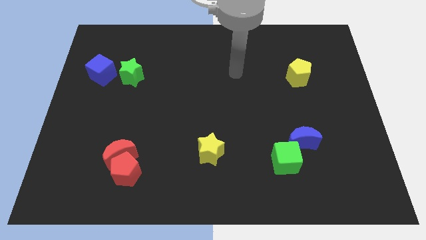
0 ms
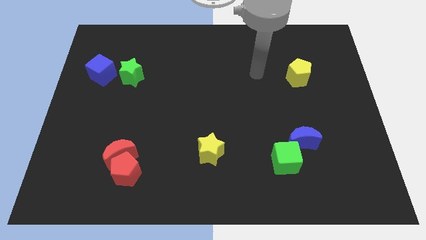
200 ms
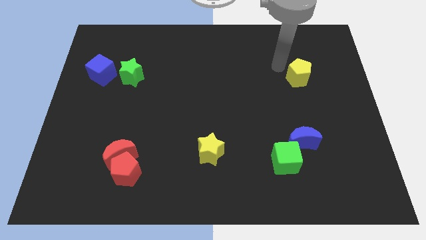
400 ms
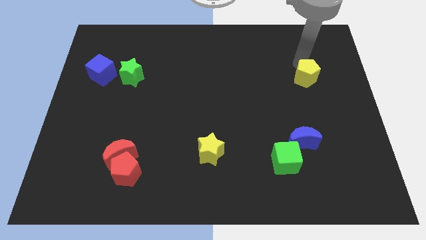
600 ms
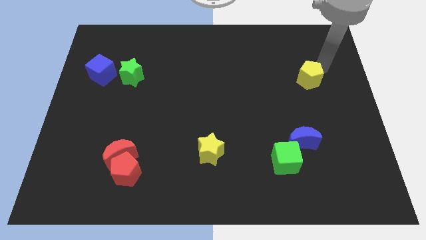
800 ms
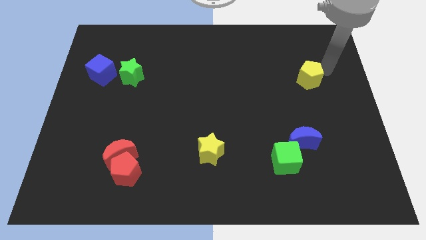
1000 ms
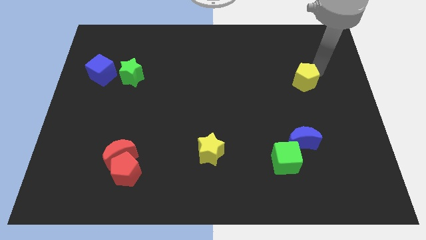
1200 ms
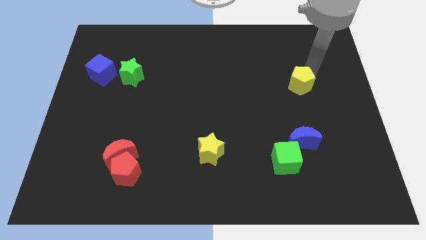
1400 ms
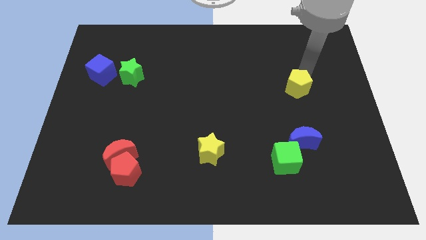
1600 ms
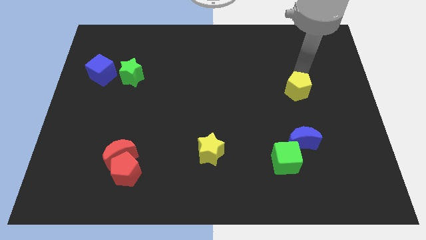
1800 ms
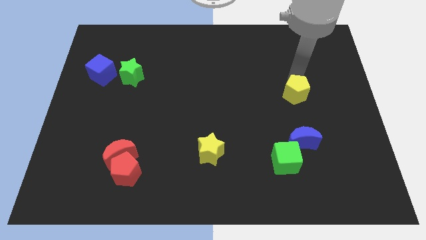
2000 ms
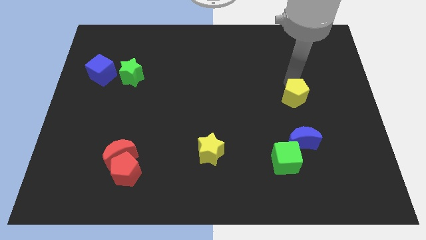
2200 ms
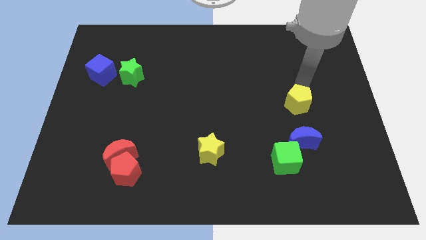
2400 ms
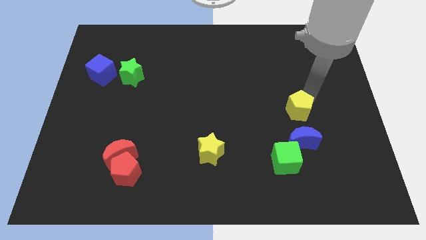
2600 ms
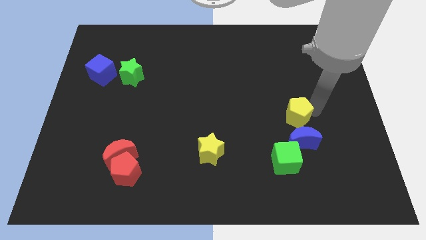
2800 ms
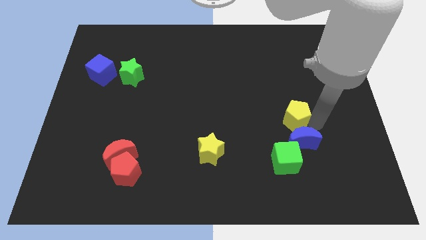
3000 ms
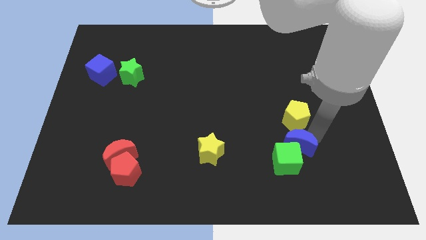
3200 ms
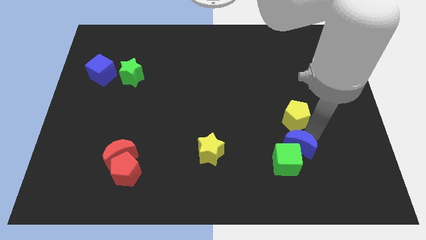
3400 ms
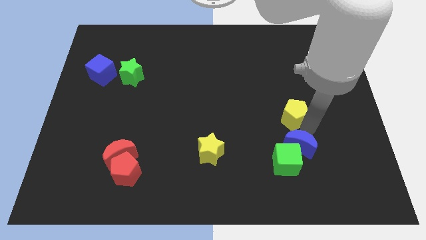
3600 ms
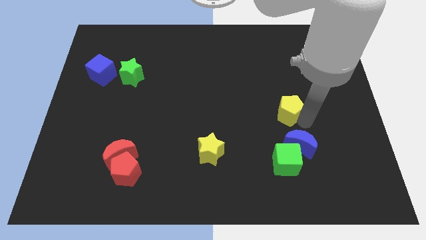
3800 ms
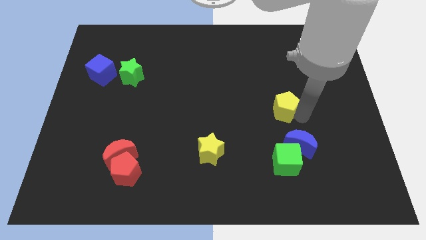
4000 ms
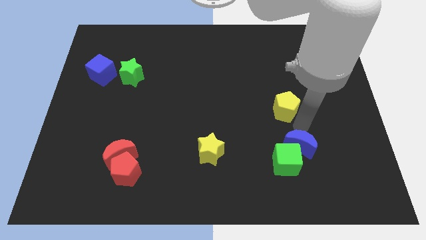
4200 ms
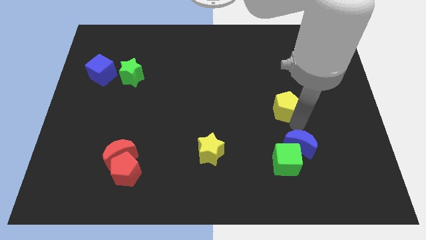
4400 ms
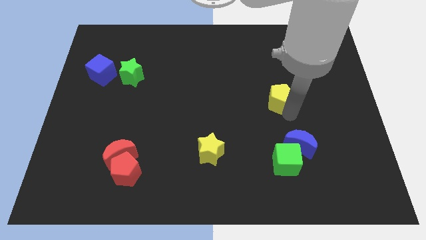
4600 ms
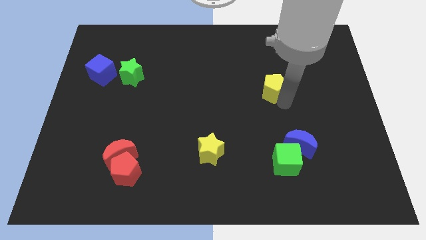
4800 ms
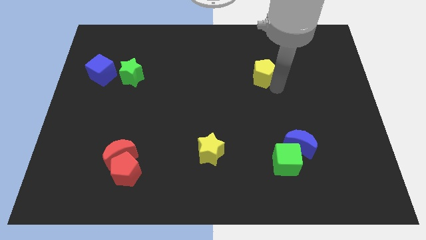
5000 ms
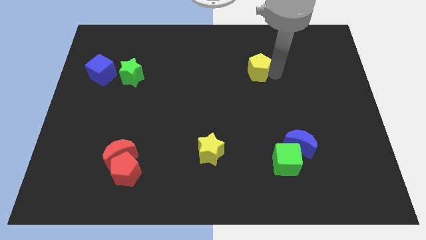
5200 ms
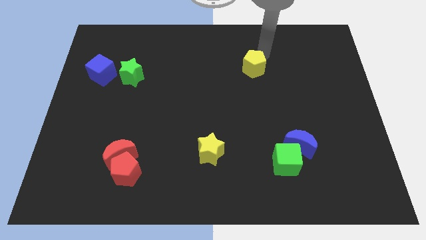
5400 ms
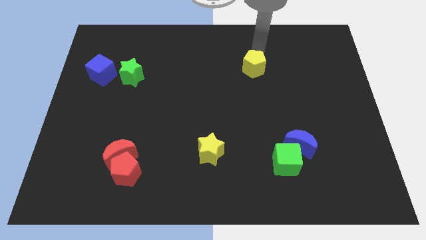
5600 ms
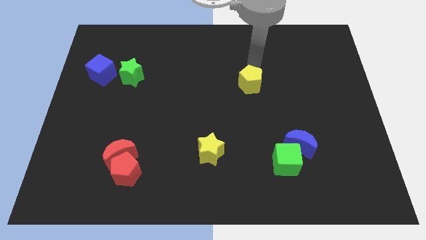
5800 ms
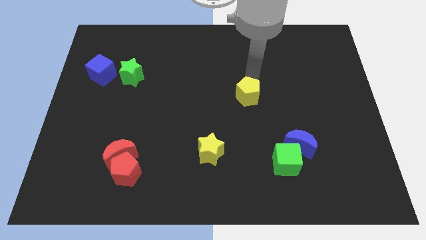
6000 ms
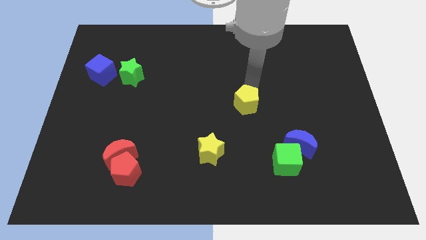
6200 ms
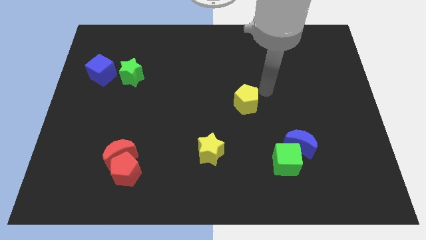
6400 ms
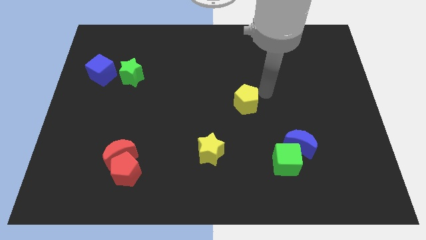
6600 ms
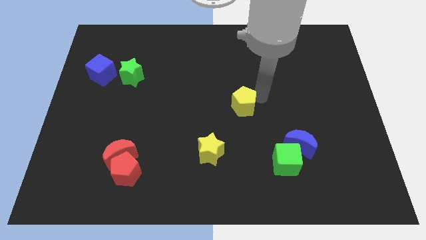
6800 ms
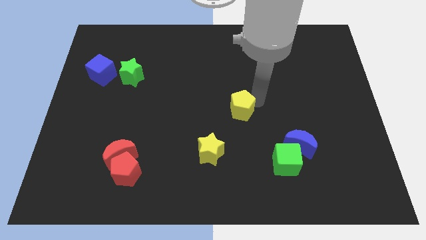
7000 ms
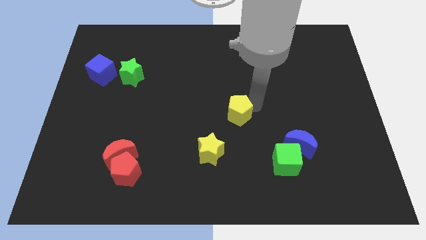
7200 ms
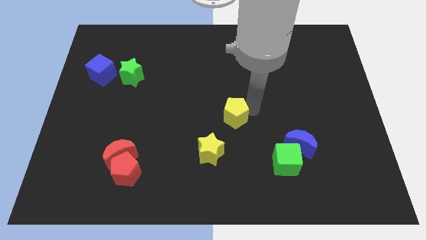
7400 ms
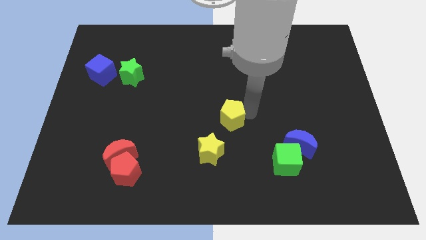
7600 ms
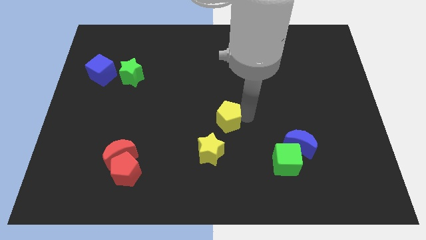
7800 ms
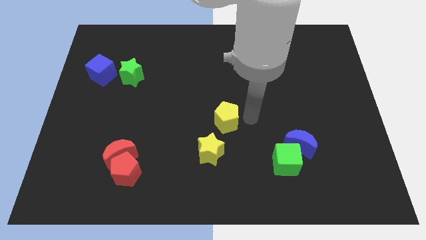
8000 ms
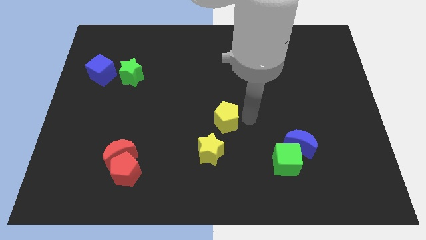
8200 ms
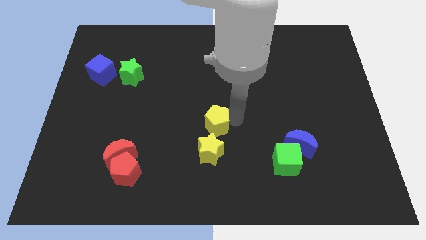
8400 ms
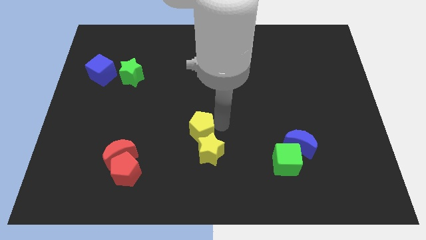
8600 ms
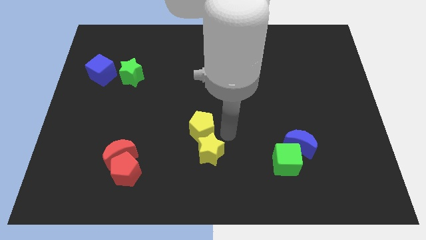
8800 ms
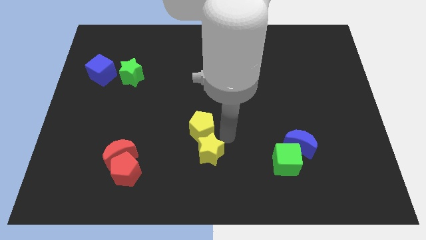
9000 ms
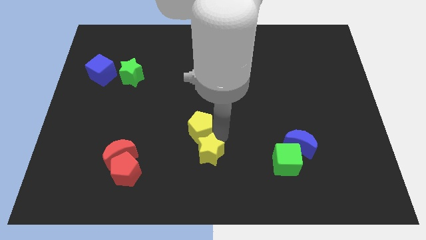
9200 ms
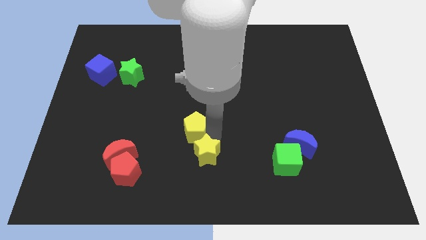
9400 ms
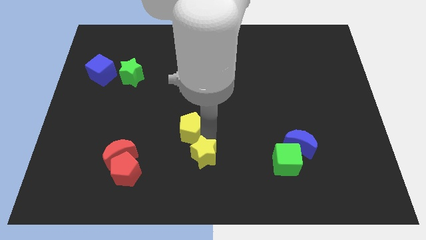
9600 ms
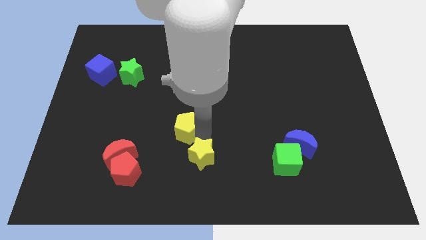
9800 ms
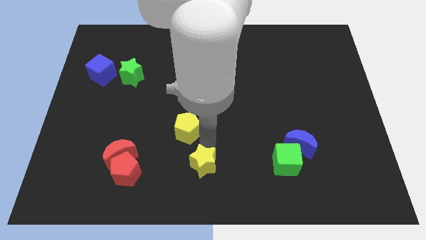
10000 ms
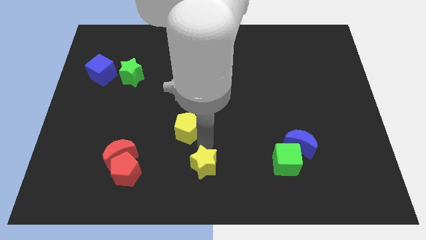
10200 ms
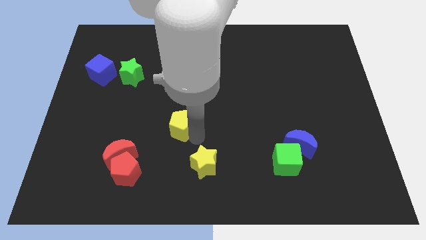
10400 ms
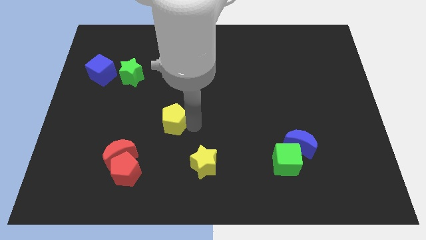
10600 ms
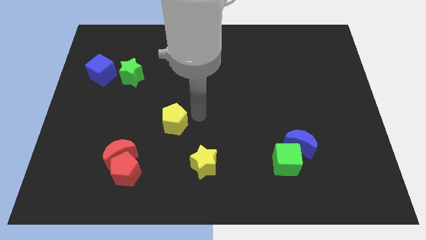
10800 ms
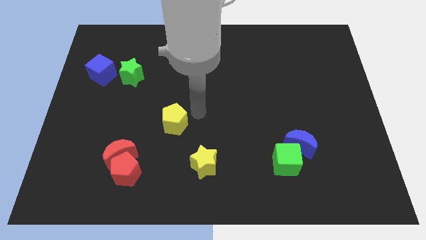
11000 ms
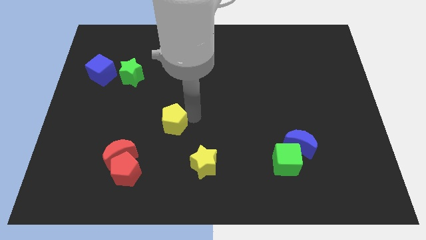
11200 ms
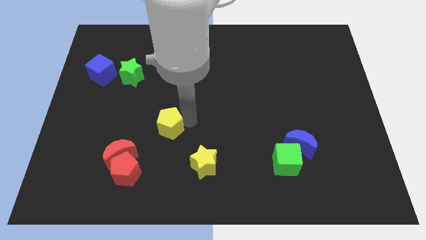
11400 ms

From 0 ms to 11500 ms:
push the yellow pentagon to the top right of the red moon

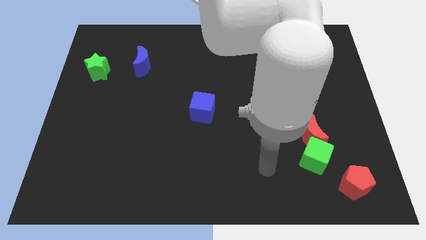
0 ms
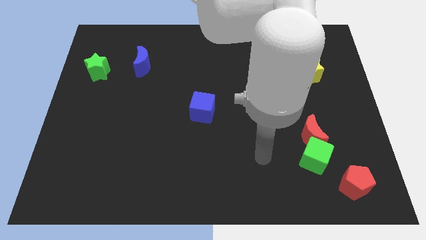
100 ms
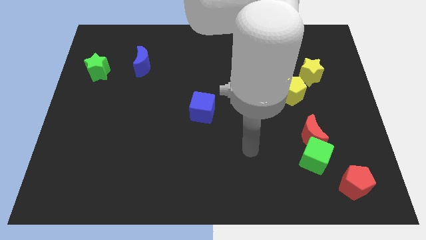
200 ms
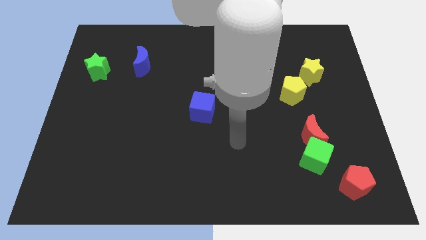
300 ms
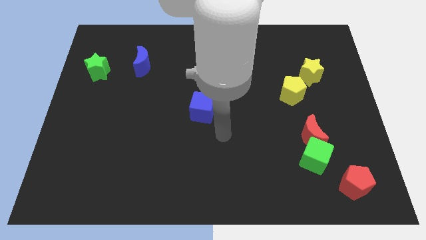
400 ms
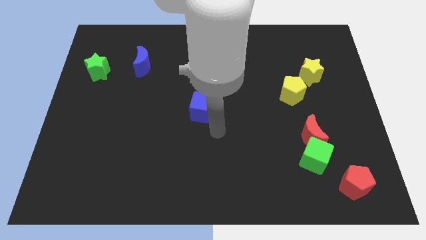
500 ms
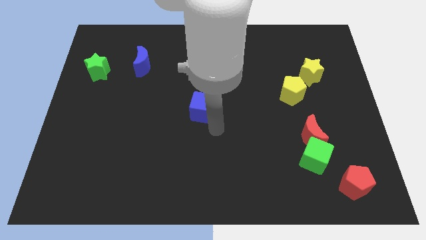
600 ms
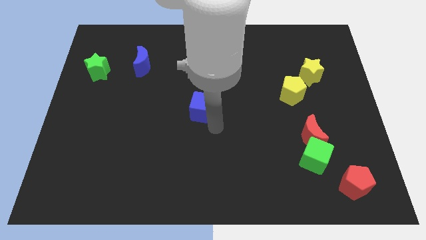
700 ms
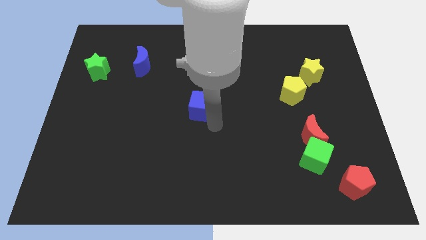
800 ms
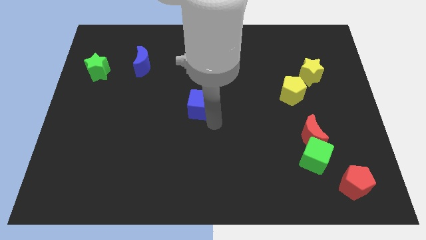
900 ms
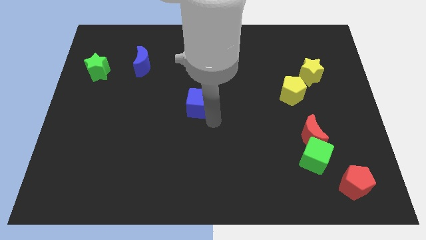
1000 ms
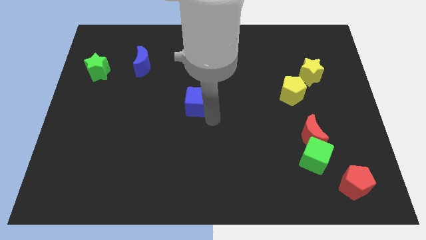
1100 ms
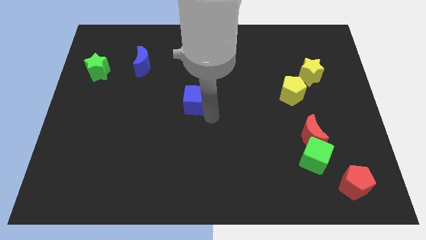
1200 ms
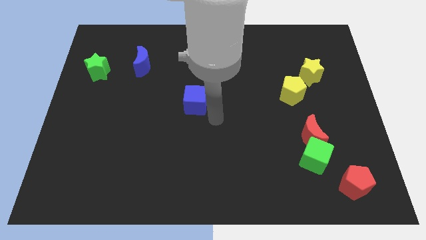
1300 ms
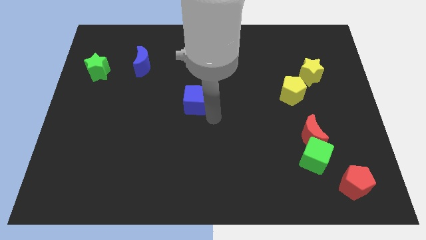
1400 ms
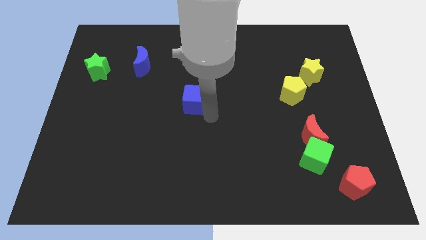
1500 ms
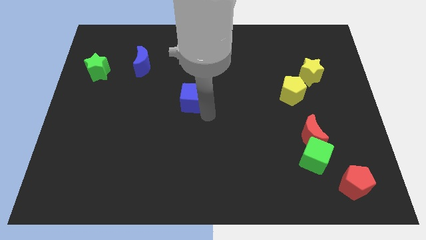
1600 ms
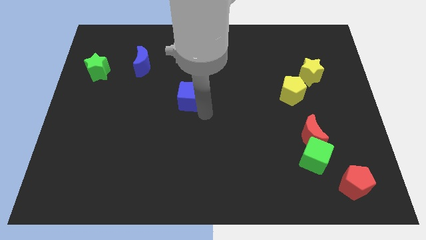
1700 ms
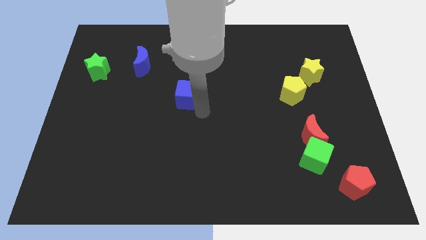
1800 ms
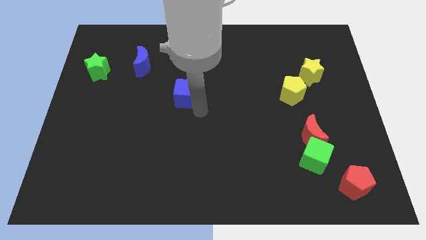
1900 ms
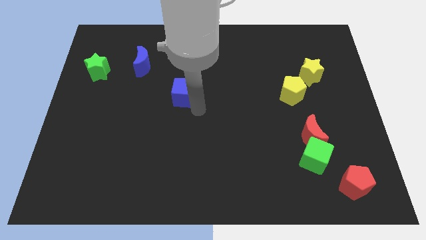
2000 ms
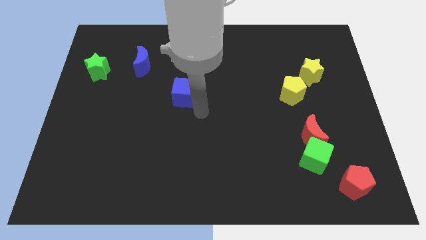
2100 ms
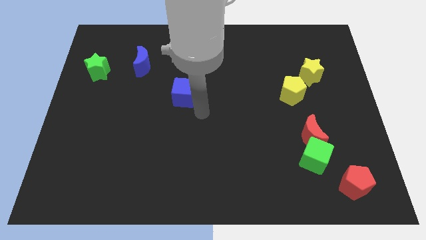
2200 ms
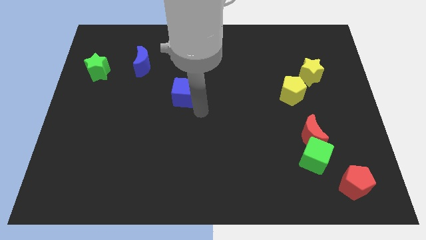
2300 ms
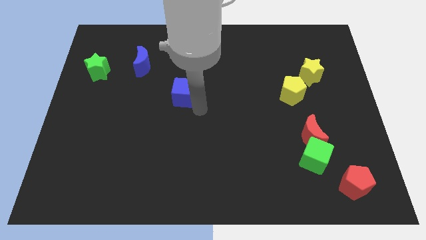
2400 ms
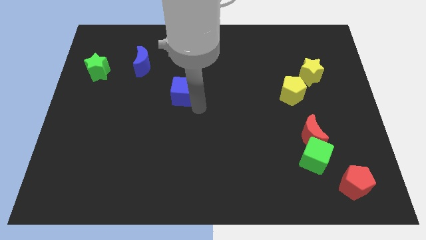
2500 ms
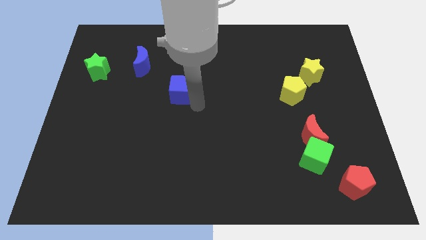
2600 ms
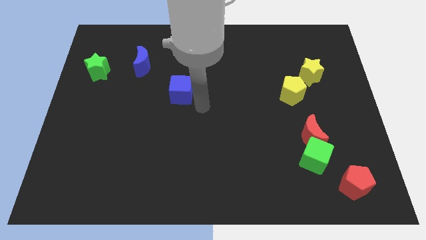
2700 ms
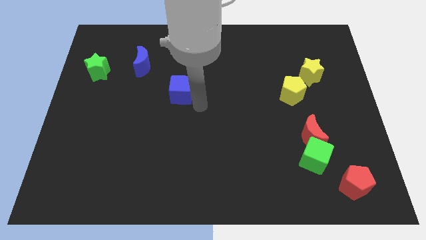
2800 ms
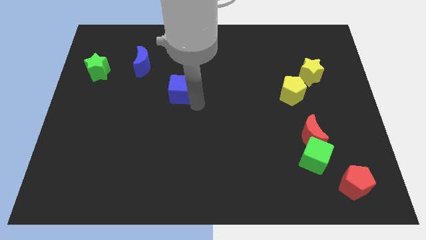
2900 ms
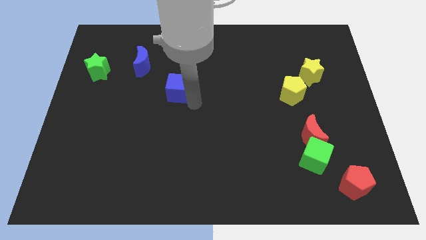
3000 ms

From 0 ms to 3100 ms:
move the blue cube to the bottom right of the blue moon
